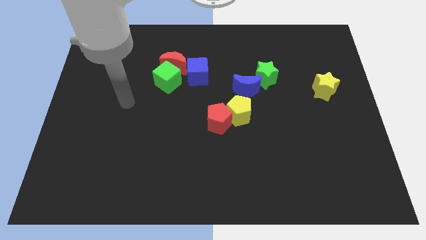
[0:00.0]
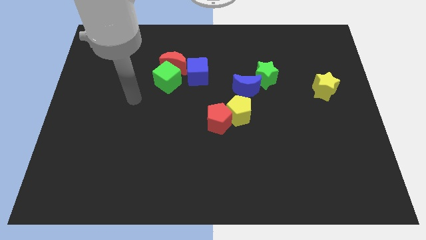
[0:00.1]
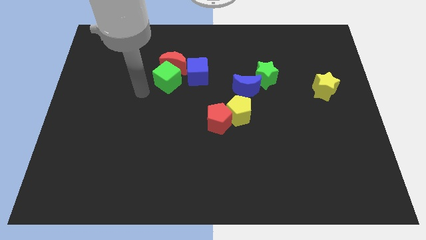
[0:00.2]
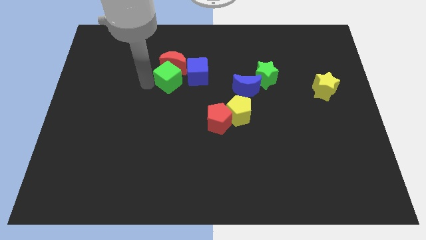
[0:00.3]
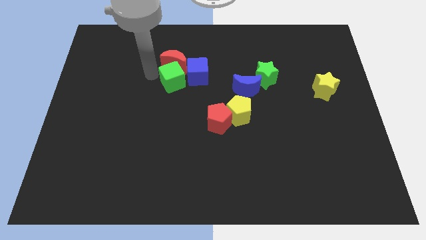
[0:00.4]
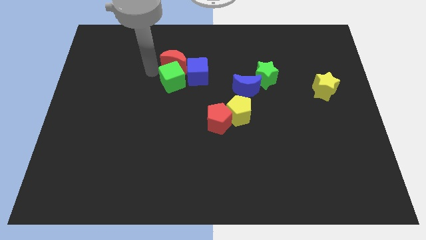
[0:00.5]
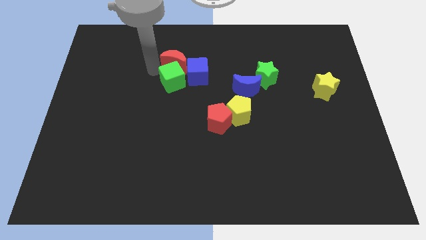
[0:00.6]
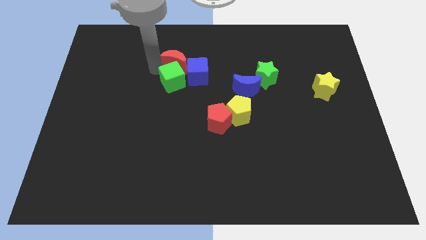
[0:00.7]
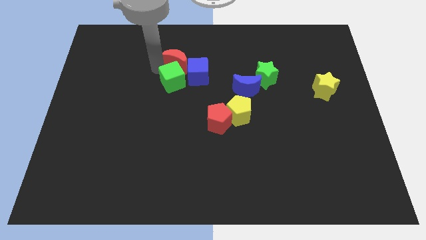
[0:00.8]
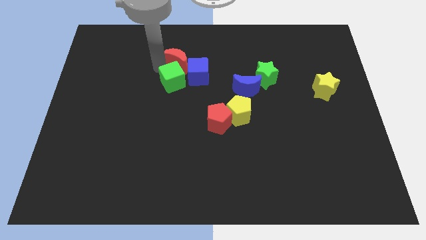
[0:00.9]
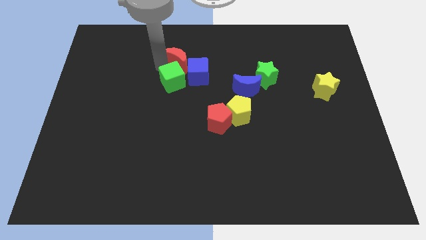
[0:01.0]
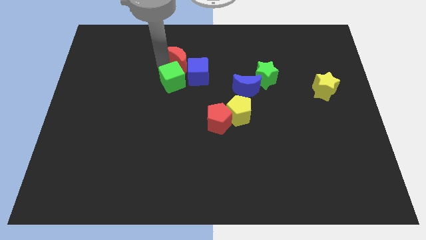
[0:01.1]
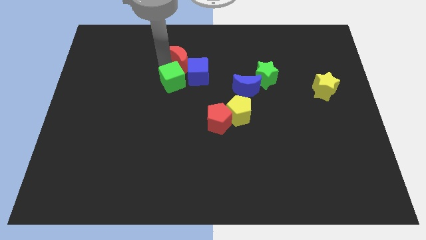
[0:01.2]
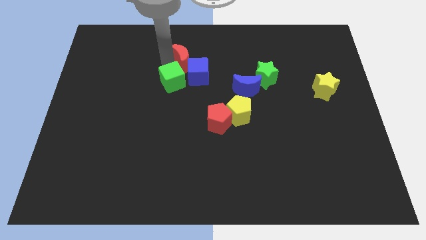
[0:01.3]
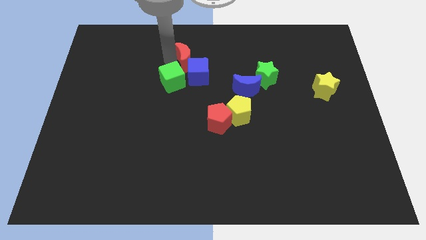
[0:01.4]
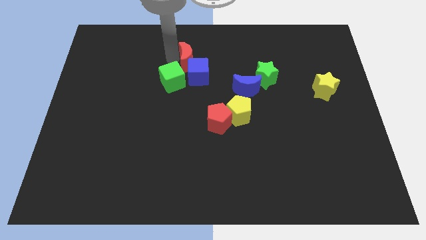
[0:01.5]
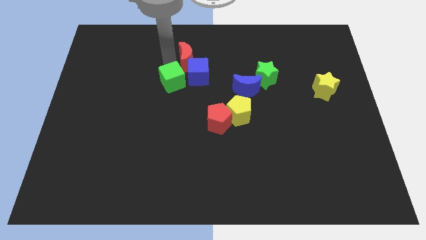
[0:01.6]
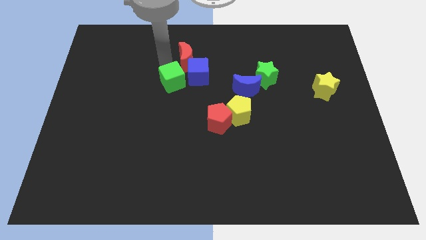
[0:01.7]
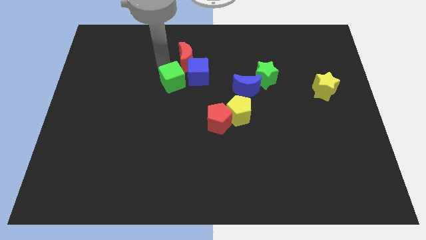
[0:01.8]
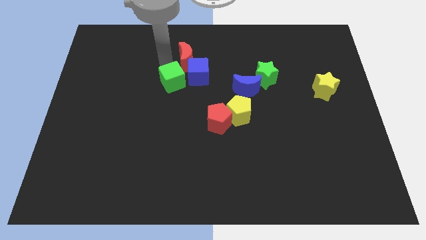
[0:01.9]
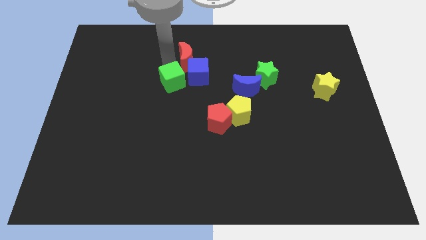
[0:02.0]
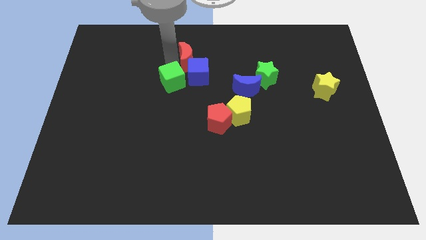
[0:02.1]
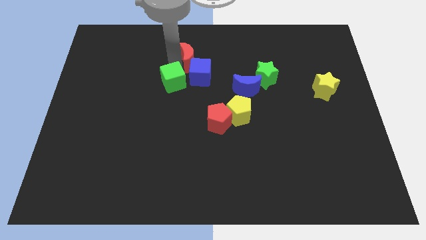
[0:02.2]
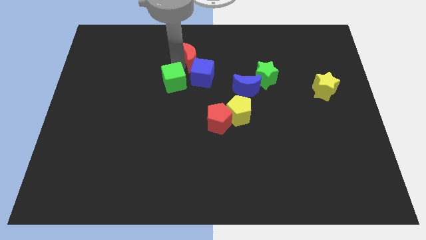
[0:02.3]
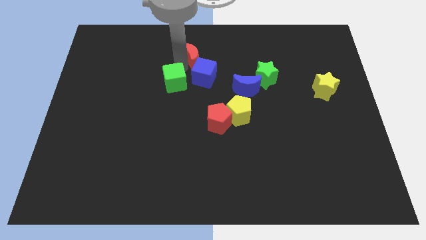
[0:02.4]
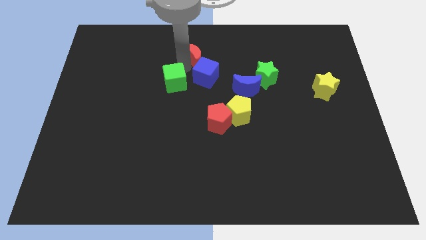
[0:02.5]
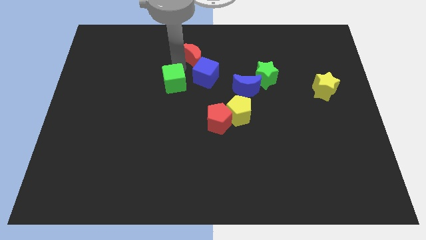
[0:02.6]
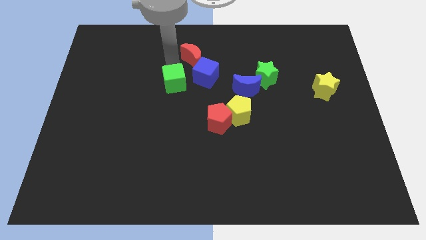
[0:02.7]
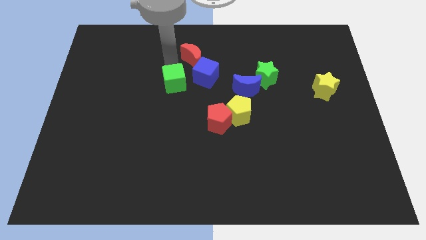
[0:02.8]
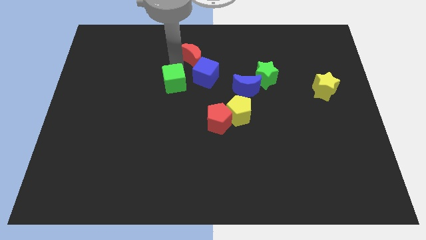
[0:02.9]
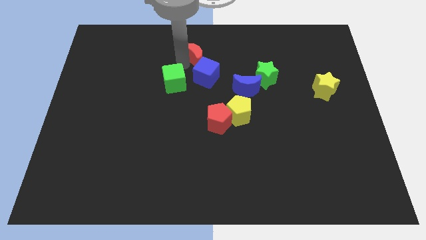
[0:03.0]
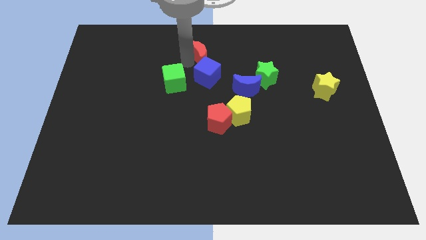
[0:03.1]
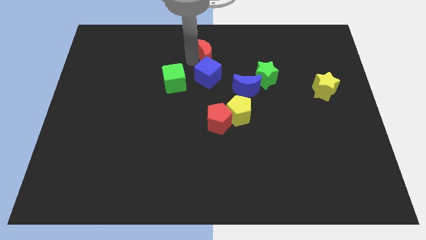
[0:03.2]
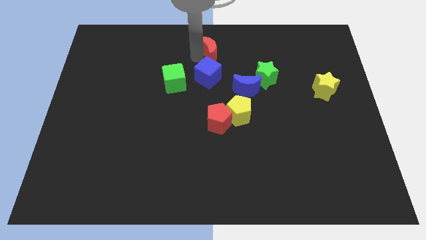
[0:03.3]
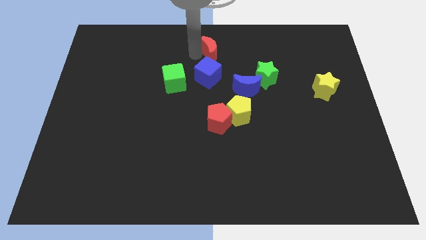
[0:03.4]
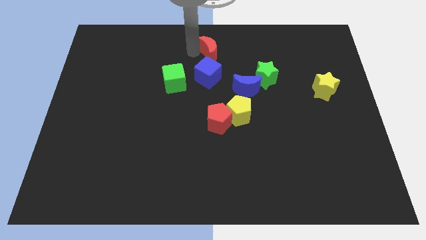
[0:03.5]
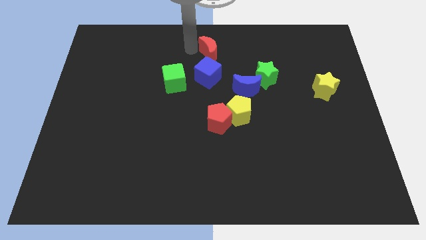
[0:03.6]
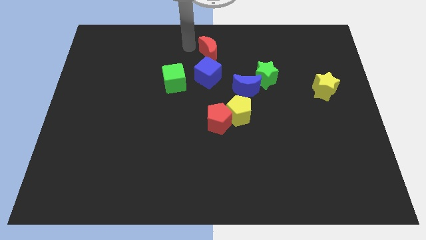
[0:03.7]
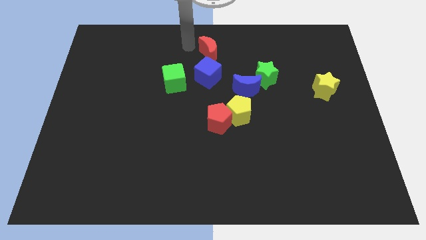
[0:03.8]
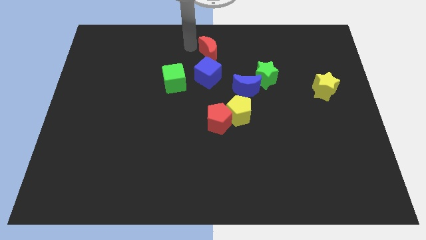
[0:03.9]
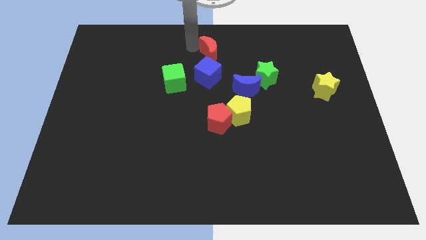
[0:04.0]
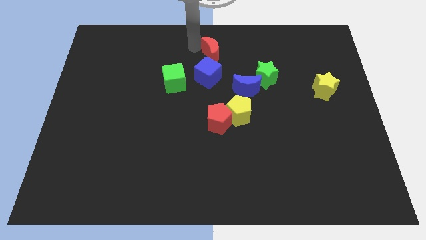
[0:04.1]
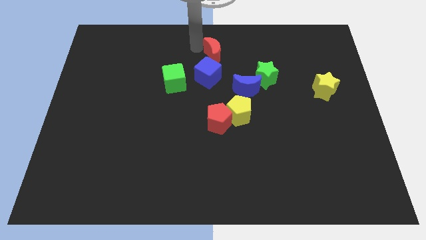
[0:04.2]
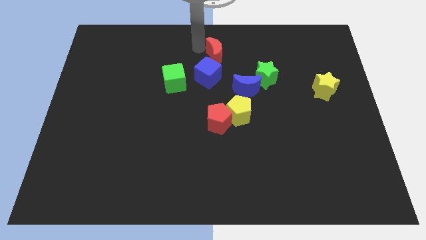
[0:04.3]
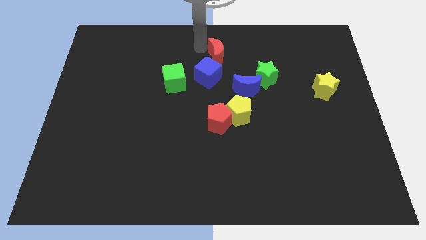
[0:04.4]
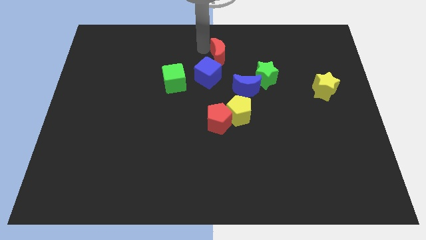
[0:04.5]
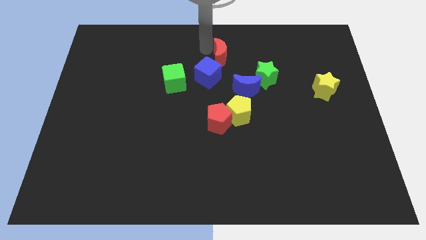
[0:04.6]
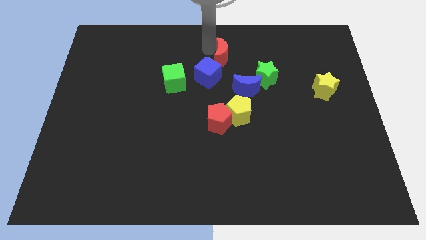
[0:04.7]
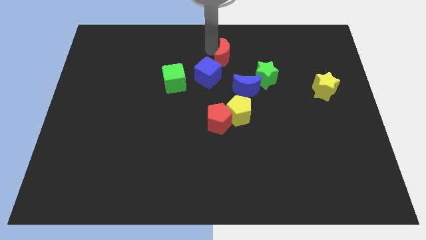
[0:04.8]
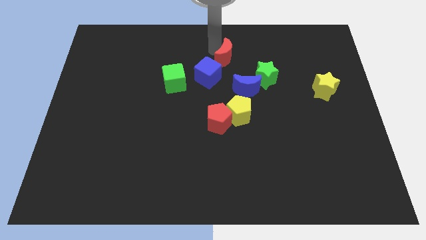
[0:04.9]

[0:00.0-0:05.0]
push the red moon above the blue moon

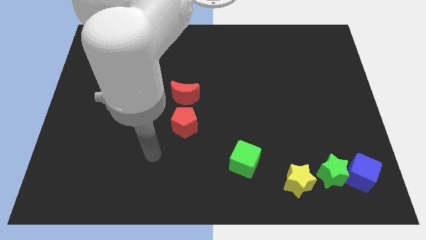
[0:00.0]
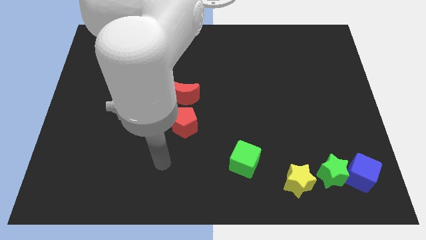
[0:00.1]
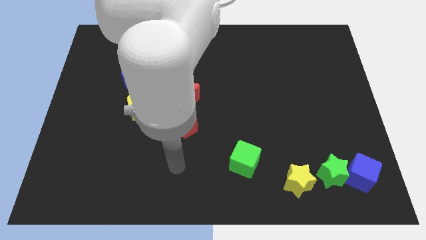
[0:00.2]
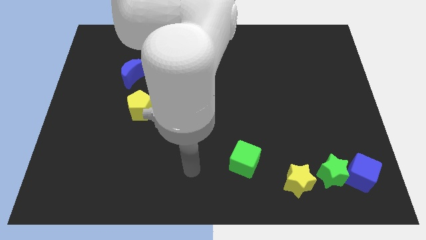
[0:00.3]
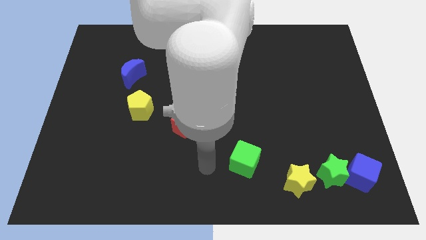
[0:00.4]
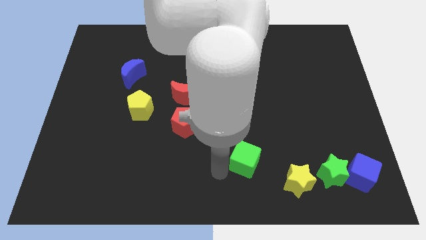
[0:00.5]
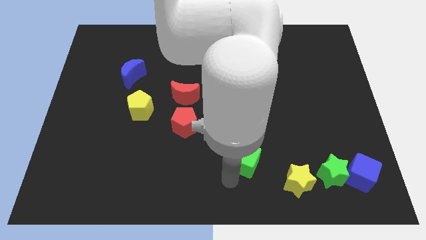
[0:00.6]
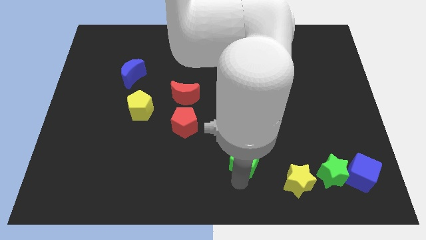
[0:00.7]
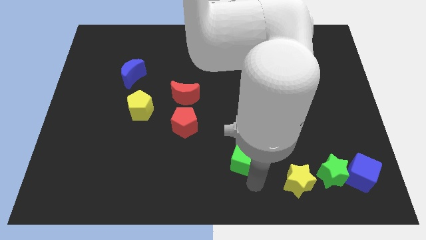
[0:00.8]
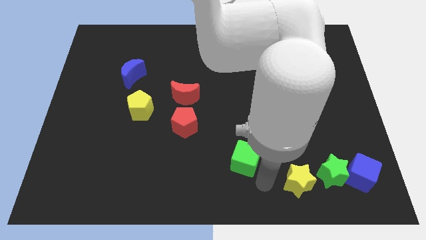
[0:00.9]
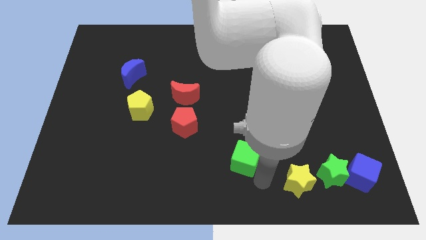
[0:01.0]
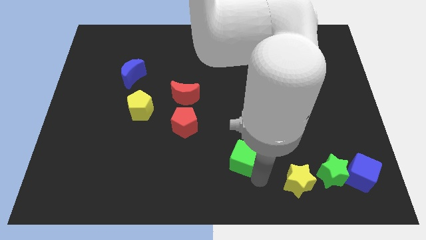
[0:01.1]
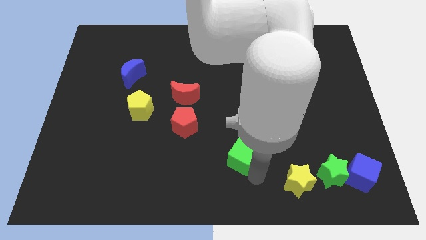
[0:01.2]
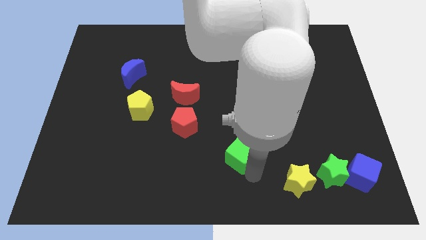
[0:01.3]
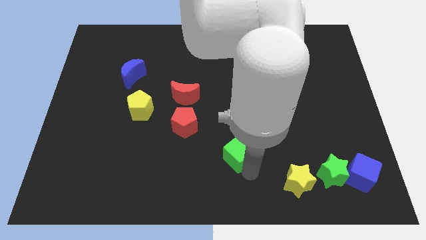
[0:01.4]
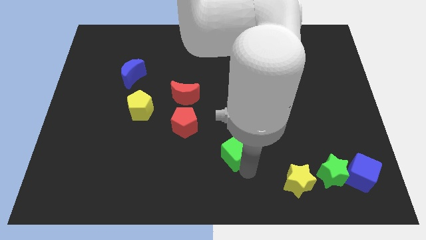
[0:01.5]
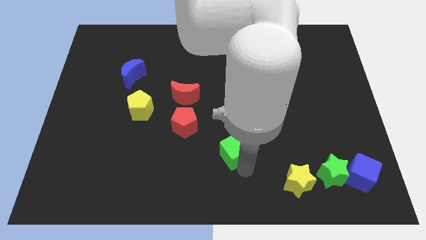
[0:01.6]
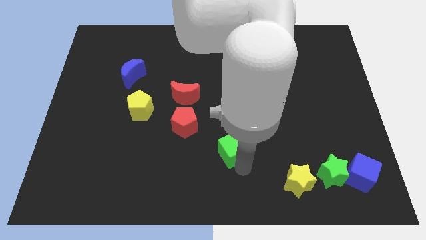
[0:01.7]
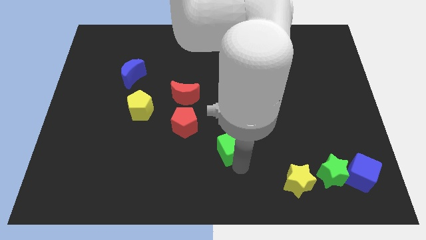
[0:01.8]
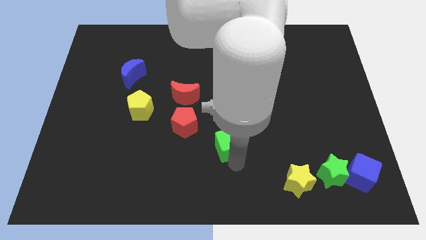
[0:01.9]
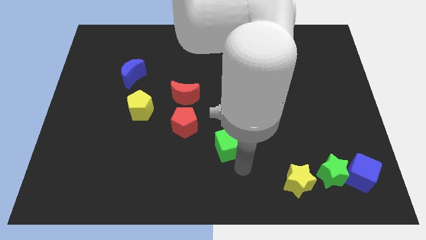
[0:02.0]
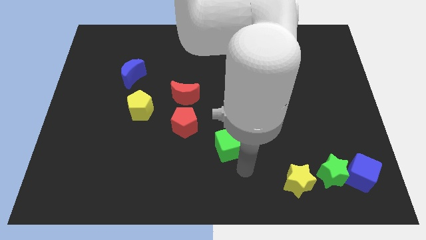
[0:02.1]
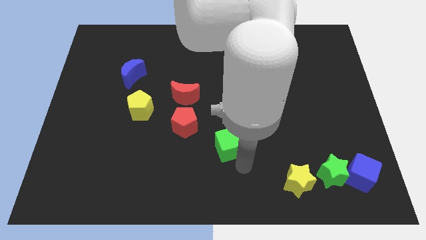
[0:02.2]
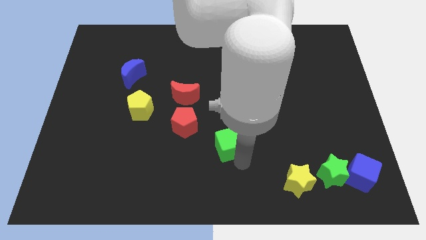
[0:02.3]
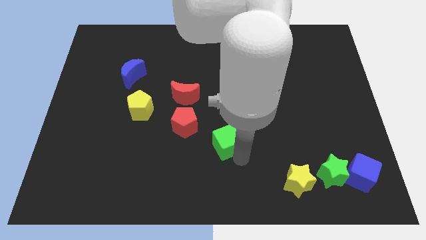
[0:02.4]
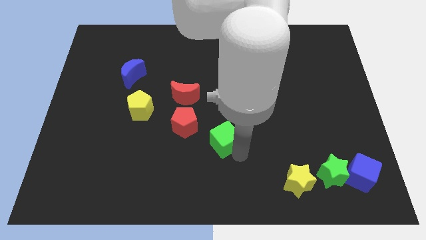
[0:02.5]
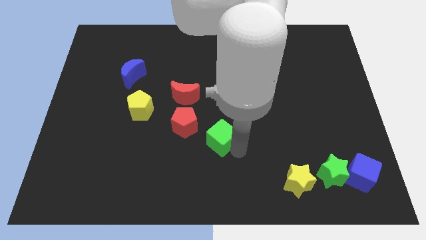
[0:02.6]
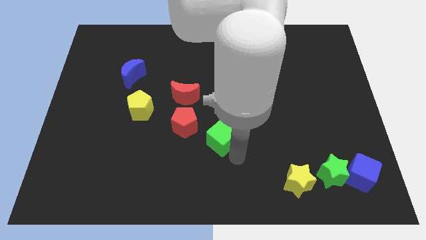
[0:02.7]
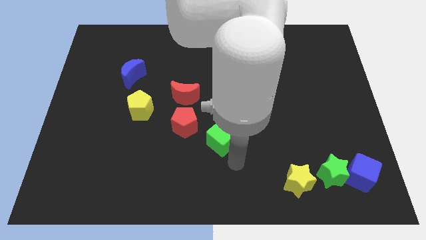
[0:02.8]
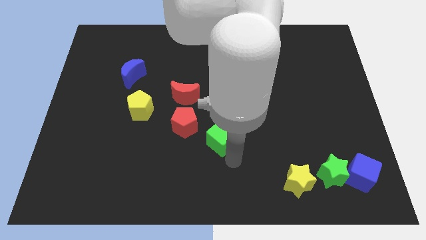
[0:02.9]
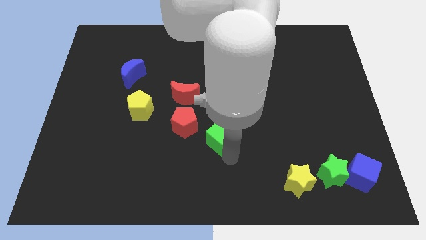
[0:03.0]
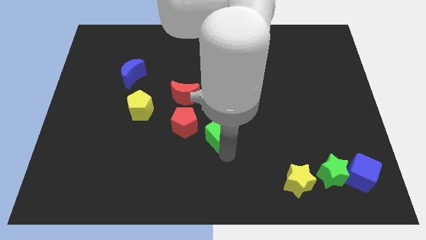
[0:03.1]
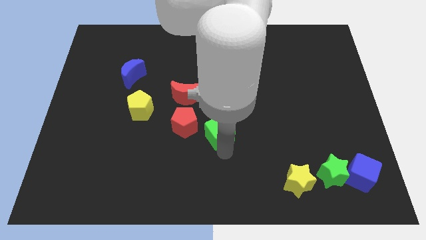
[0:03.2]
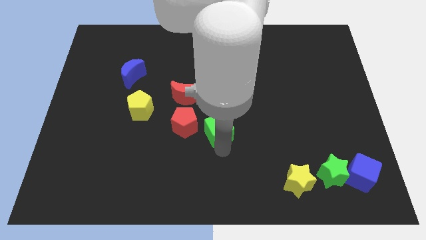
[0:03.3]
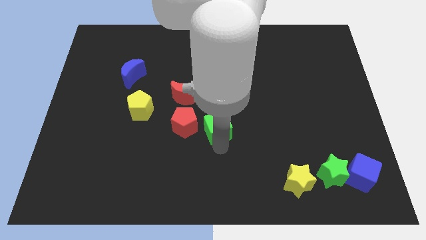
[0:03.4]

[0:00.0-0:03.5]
slide the green cube to the bottom right side of the red moon
